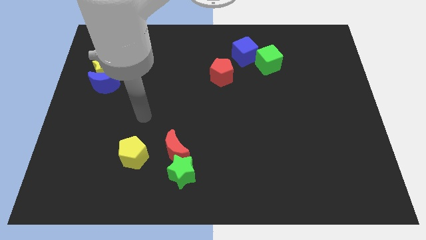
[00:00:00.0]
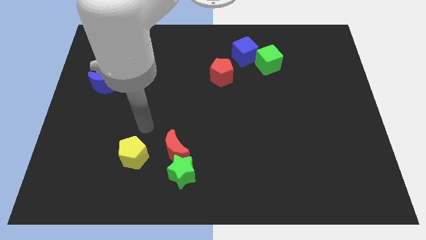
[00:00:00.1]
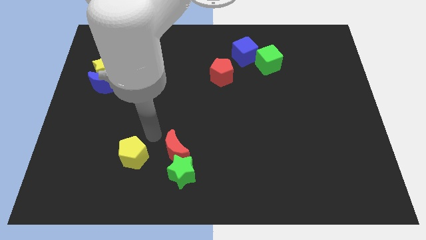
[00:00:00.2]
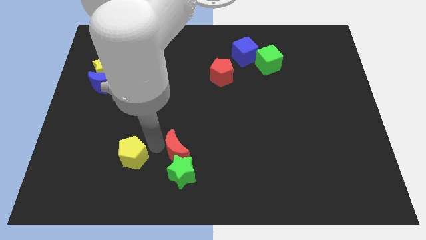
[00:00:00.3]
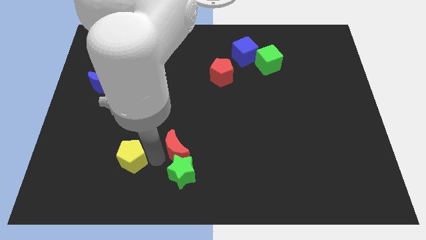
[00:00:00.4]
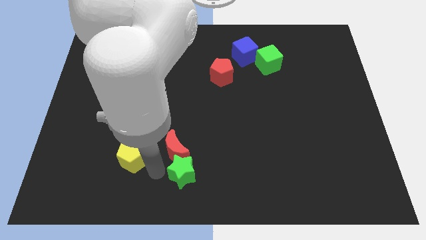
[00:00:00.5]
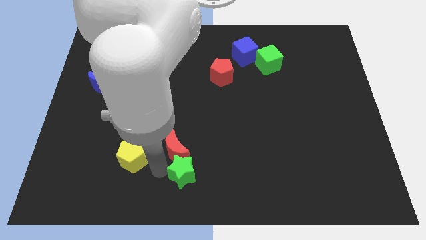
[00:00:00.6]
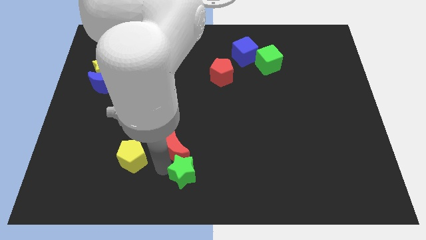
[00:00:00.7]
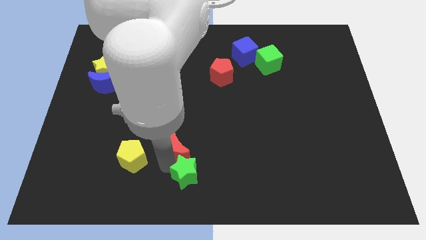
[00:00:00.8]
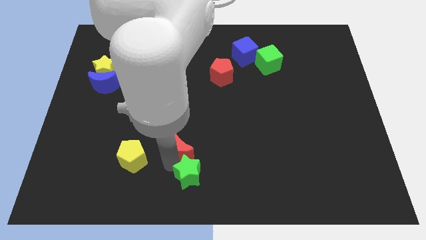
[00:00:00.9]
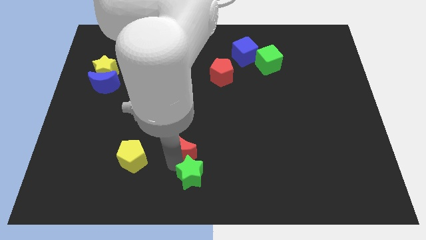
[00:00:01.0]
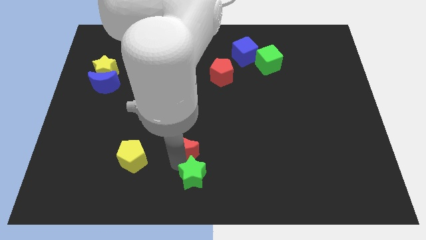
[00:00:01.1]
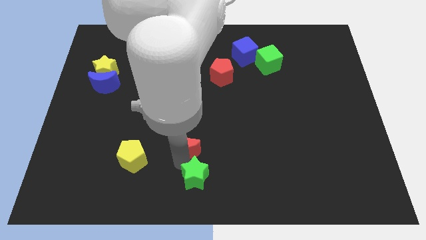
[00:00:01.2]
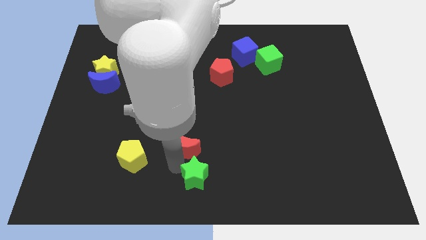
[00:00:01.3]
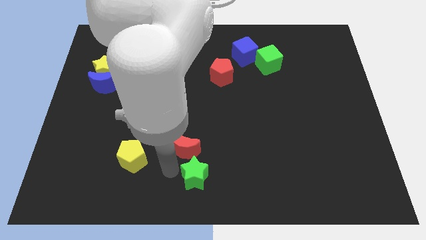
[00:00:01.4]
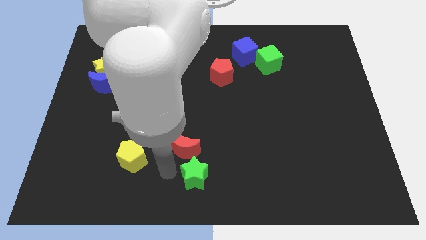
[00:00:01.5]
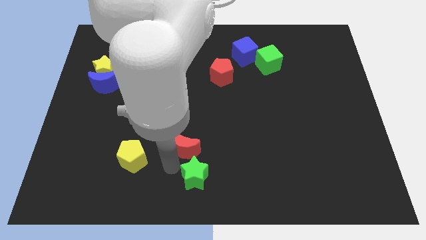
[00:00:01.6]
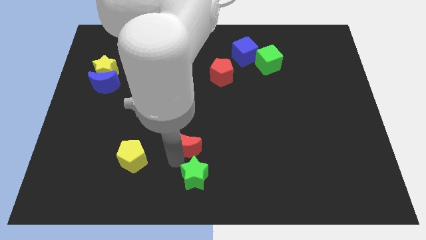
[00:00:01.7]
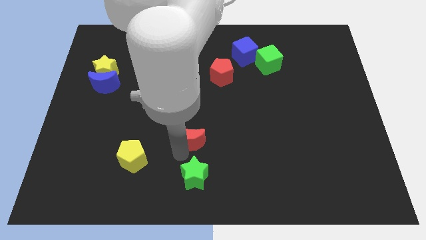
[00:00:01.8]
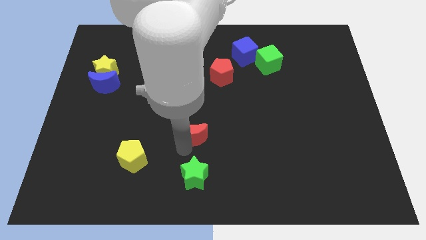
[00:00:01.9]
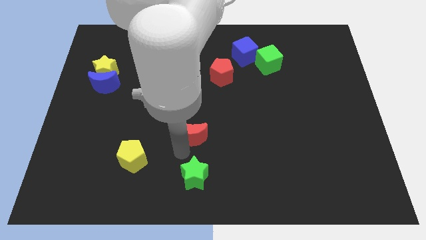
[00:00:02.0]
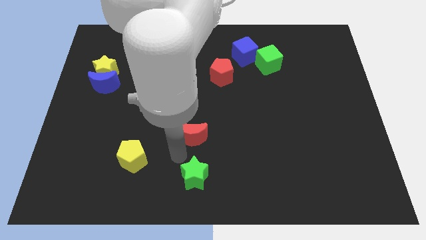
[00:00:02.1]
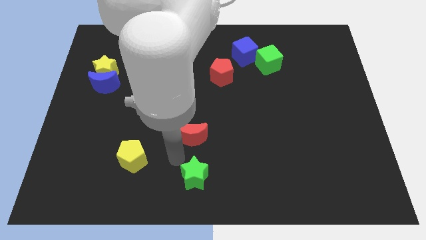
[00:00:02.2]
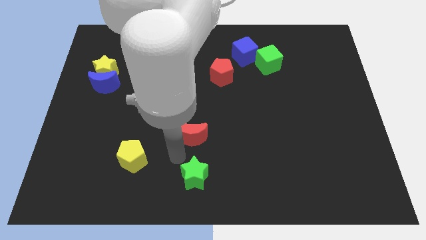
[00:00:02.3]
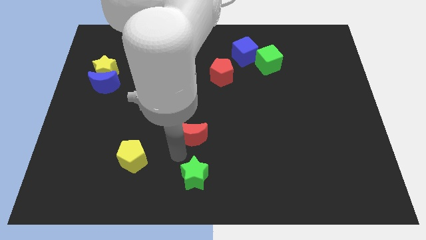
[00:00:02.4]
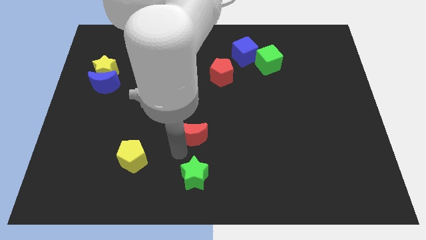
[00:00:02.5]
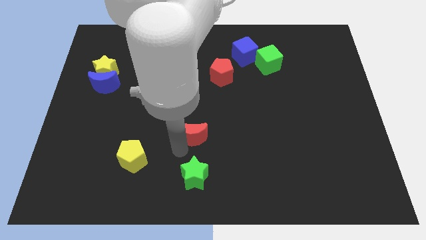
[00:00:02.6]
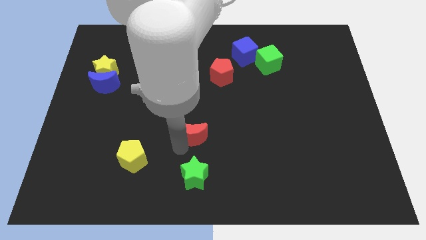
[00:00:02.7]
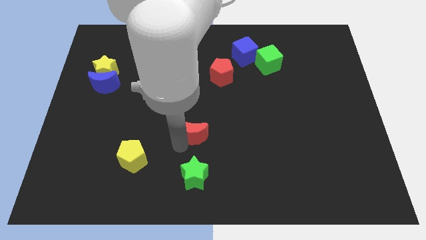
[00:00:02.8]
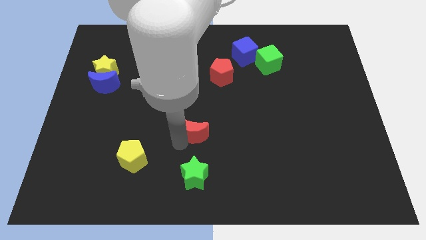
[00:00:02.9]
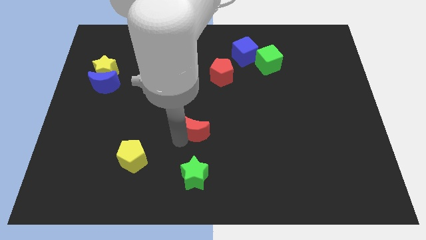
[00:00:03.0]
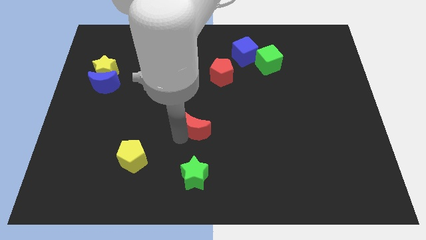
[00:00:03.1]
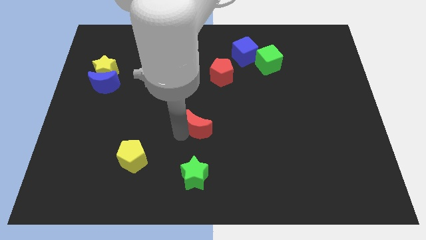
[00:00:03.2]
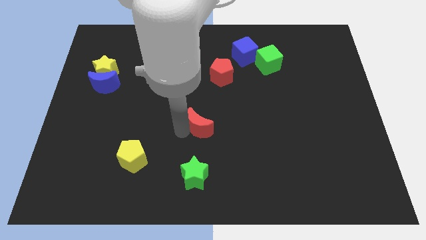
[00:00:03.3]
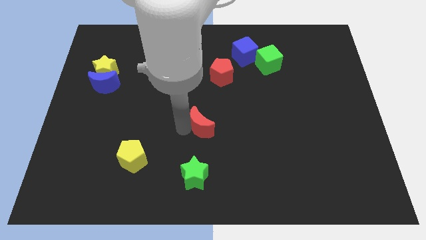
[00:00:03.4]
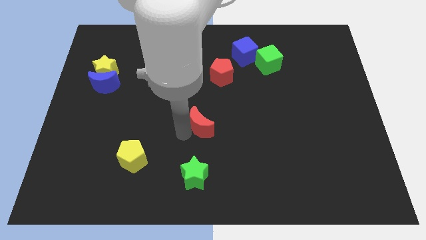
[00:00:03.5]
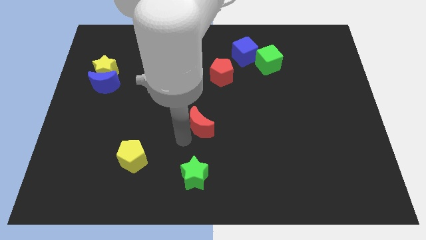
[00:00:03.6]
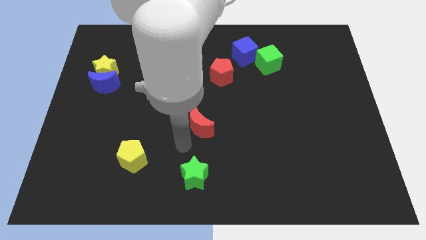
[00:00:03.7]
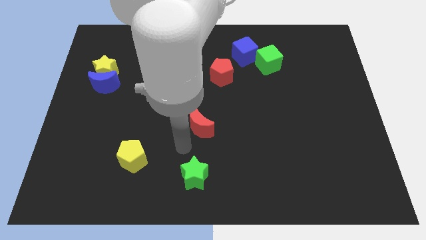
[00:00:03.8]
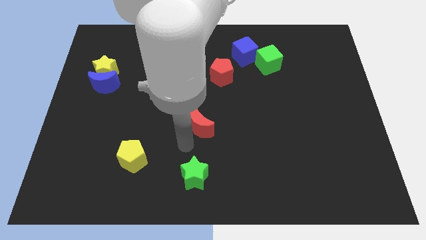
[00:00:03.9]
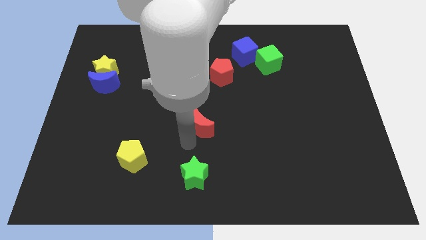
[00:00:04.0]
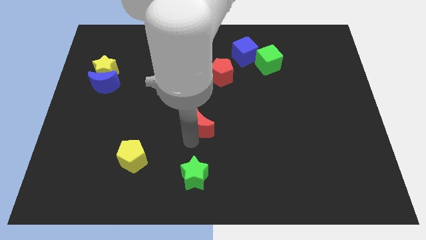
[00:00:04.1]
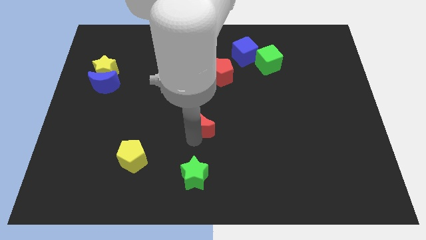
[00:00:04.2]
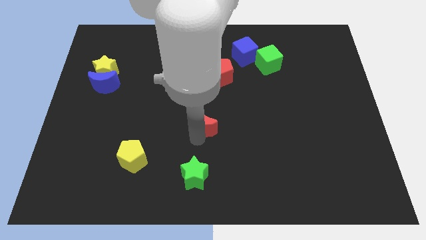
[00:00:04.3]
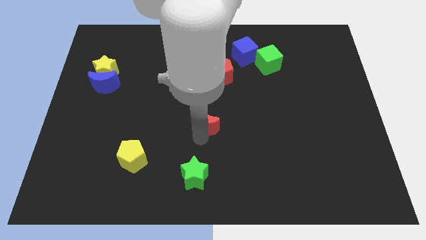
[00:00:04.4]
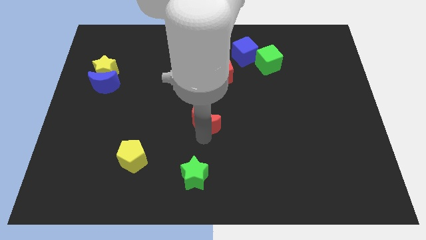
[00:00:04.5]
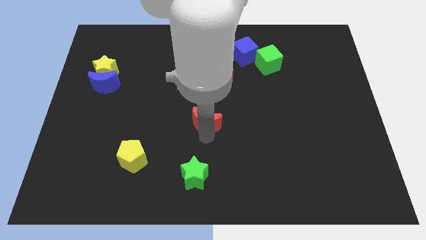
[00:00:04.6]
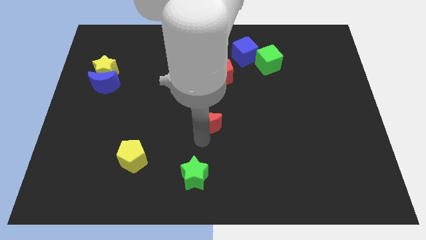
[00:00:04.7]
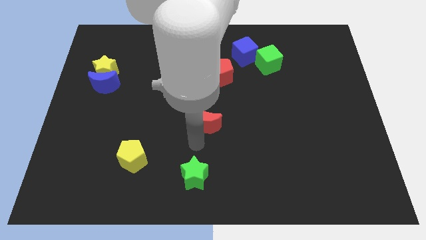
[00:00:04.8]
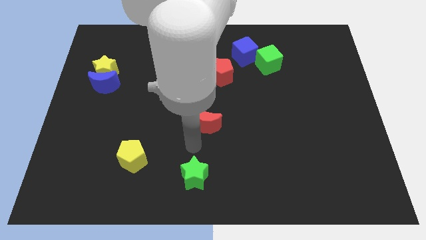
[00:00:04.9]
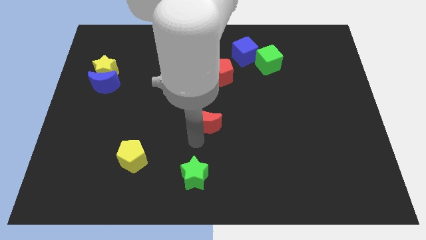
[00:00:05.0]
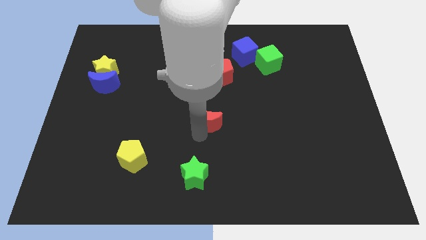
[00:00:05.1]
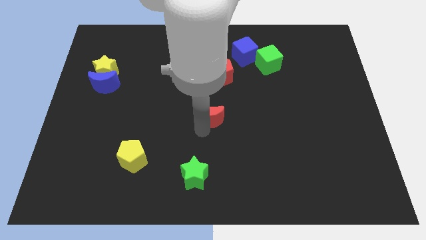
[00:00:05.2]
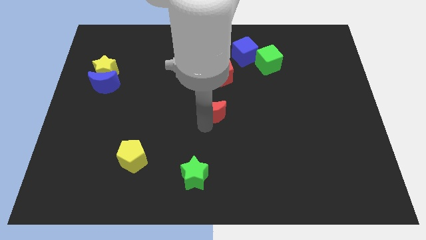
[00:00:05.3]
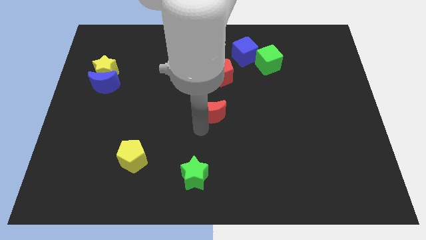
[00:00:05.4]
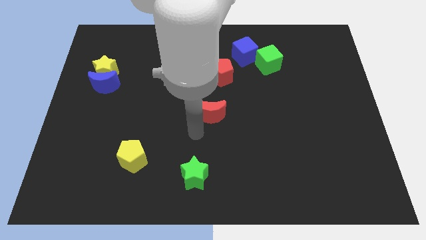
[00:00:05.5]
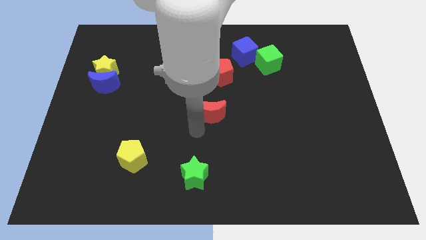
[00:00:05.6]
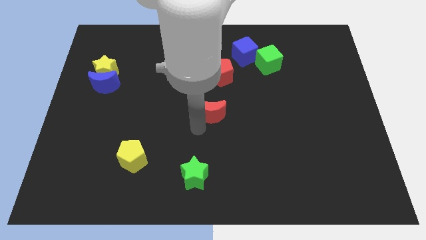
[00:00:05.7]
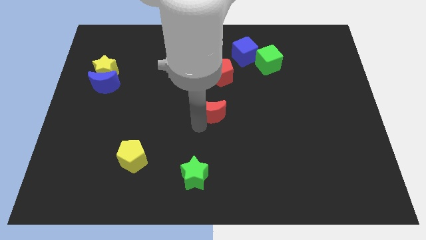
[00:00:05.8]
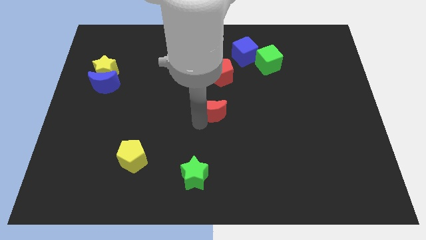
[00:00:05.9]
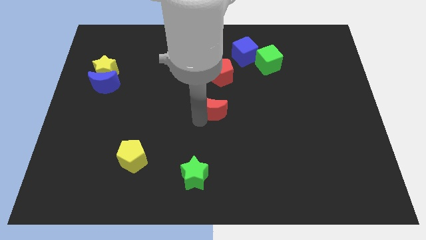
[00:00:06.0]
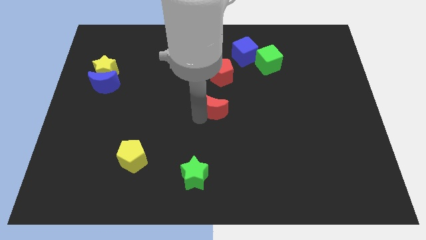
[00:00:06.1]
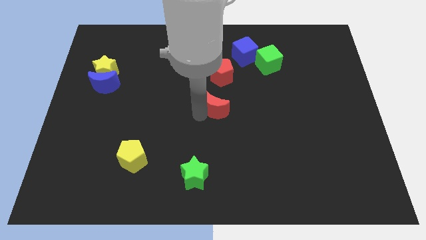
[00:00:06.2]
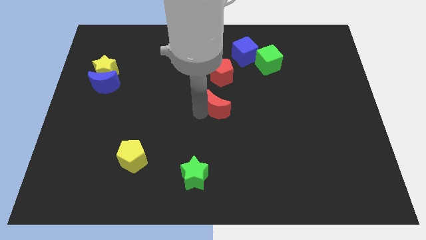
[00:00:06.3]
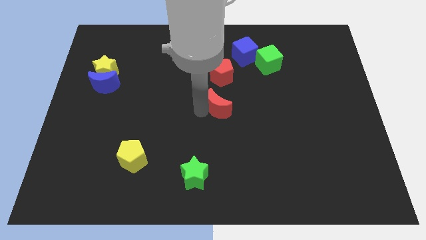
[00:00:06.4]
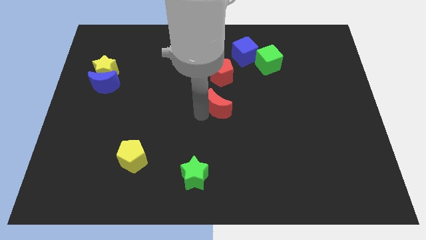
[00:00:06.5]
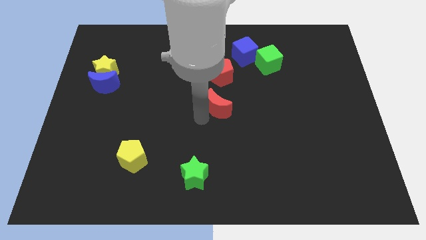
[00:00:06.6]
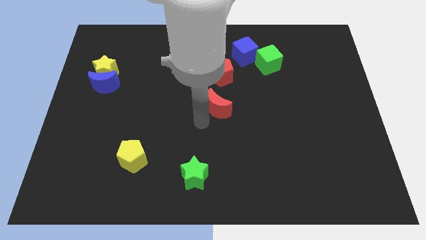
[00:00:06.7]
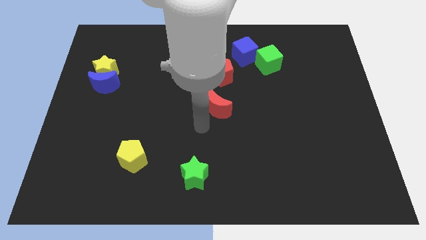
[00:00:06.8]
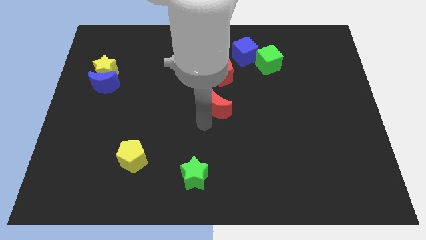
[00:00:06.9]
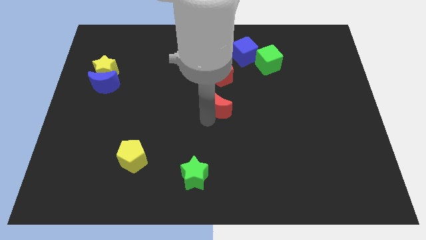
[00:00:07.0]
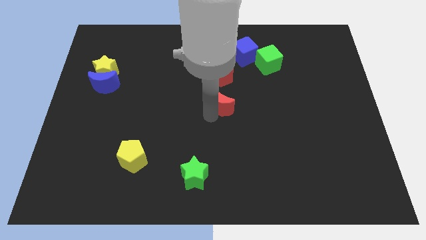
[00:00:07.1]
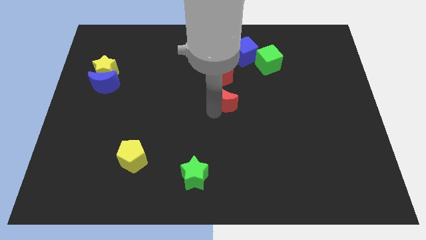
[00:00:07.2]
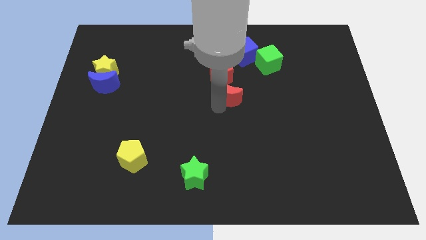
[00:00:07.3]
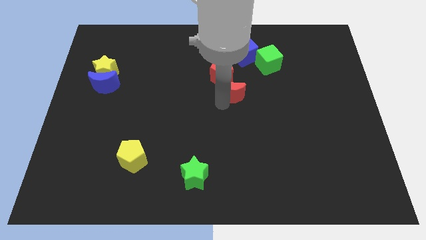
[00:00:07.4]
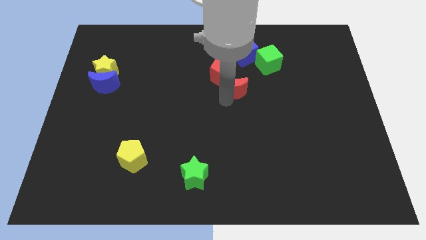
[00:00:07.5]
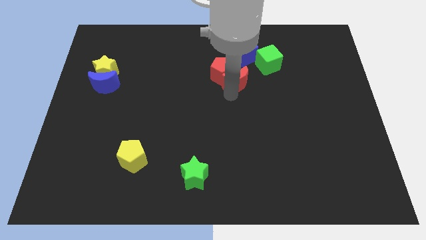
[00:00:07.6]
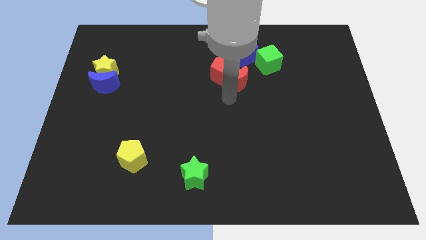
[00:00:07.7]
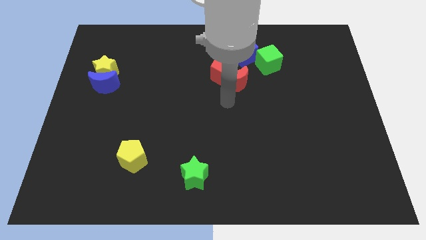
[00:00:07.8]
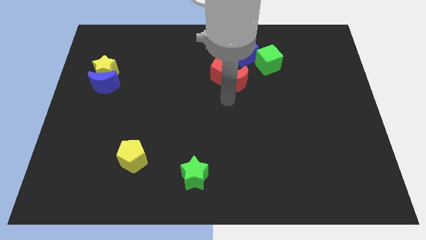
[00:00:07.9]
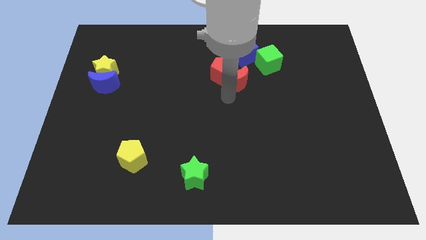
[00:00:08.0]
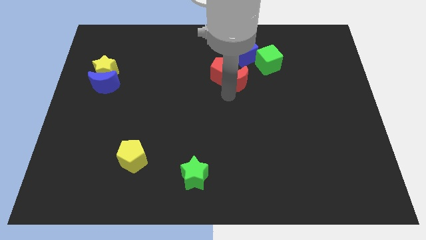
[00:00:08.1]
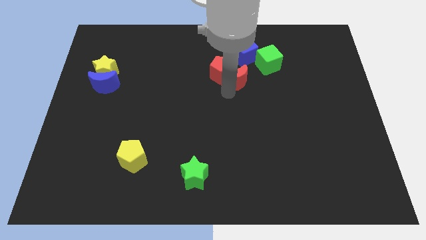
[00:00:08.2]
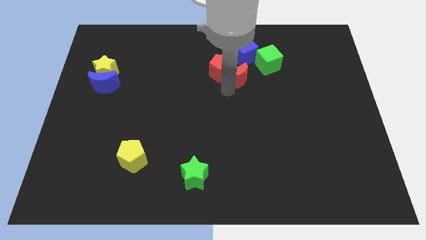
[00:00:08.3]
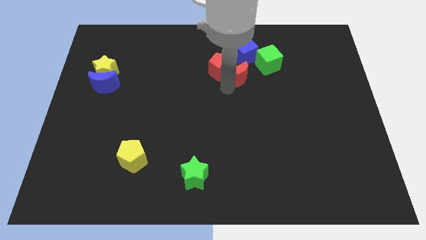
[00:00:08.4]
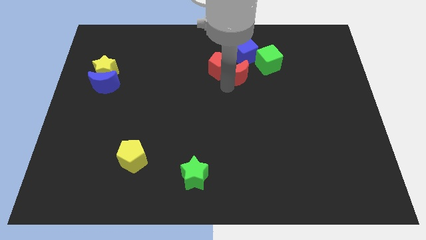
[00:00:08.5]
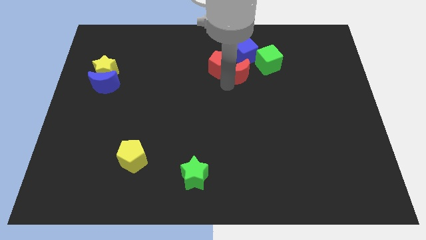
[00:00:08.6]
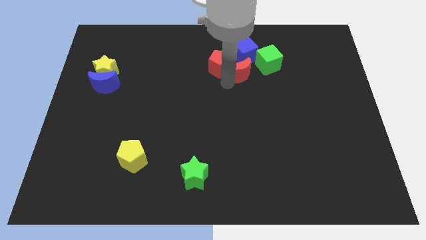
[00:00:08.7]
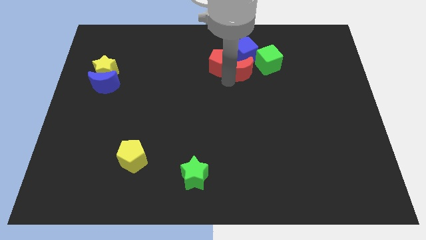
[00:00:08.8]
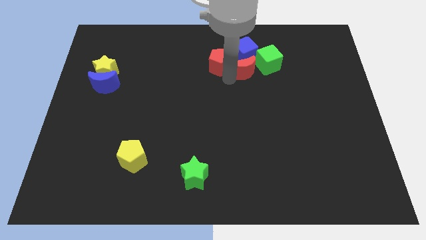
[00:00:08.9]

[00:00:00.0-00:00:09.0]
push the red moon to the blue cube
